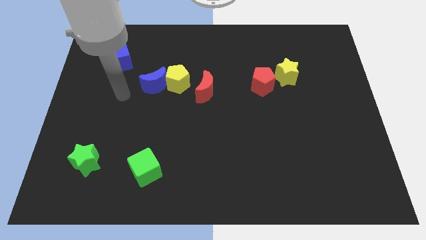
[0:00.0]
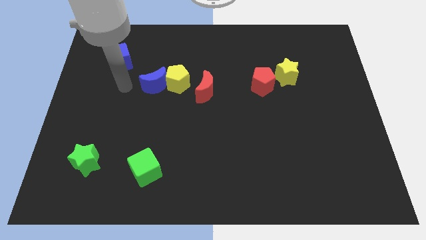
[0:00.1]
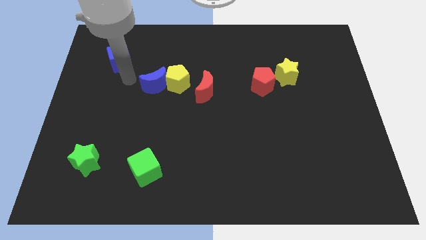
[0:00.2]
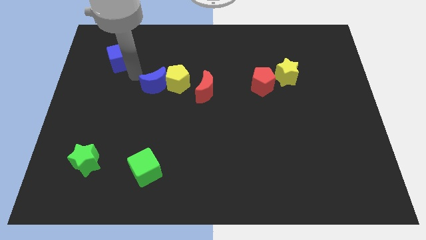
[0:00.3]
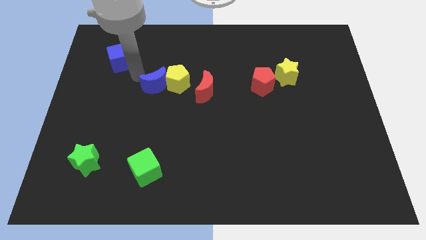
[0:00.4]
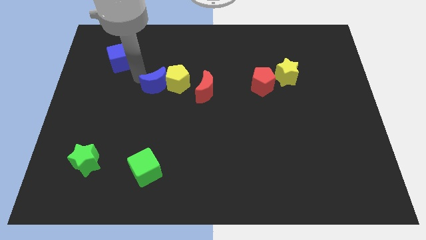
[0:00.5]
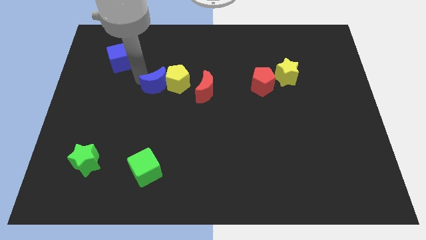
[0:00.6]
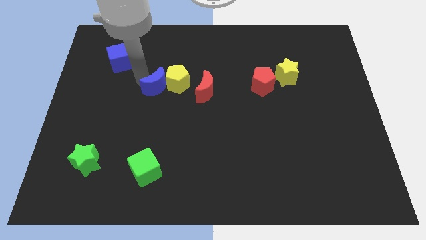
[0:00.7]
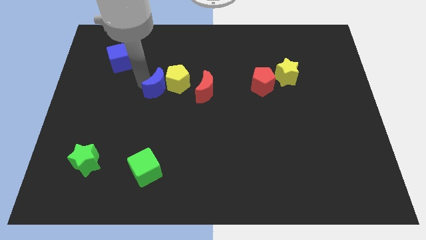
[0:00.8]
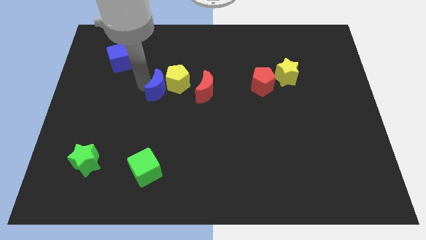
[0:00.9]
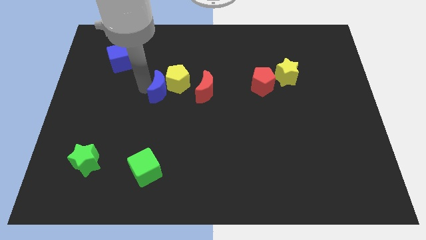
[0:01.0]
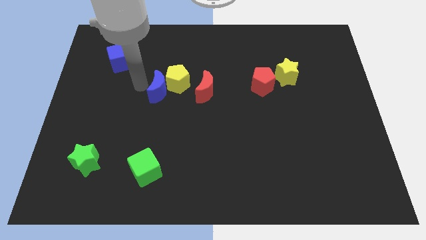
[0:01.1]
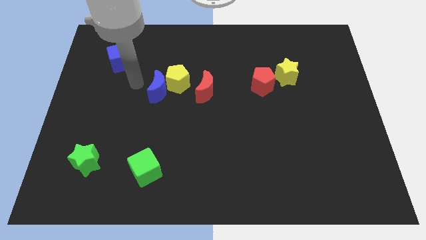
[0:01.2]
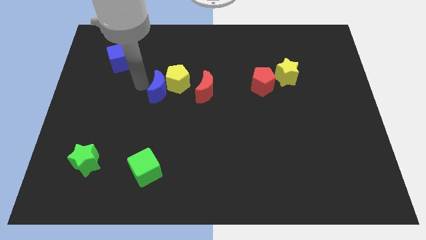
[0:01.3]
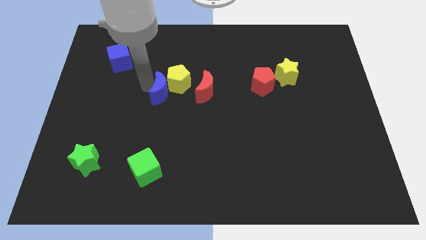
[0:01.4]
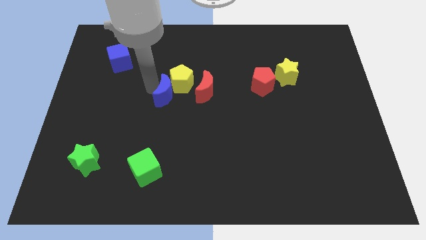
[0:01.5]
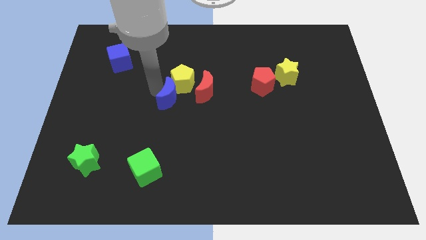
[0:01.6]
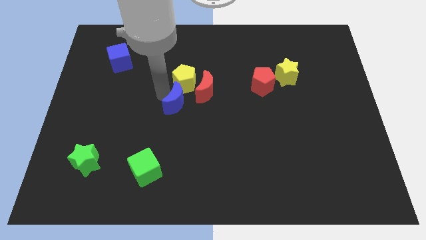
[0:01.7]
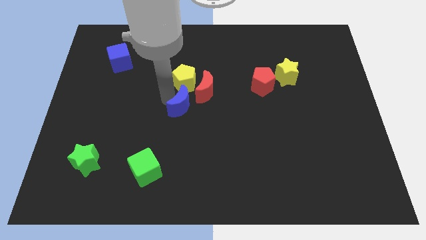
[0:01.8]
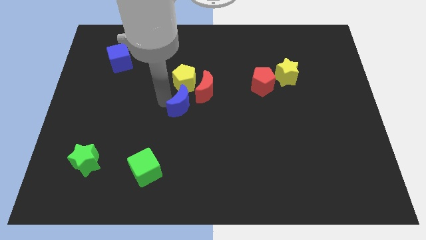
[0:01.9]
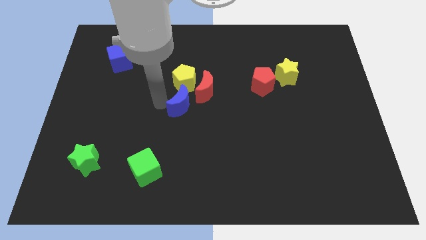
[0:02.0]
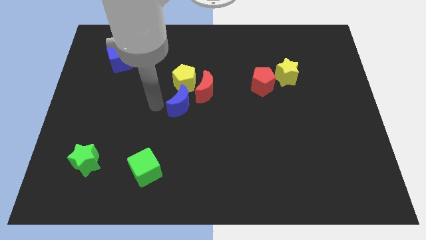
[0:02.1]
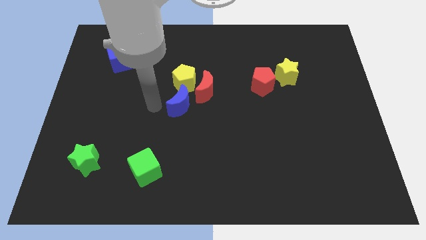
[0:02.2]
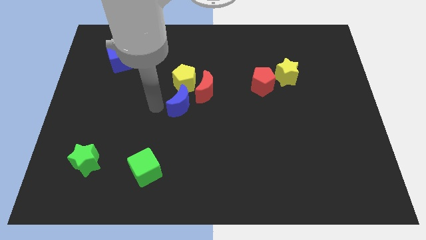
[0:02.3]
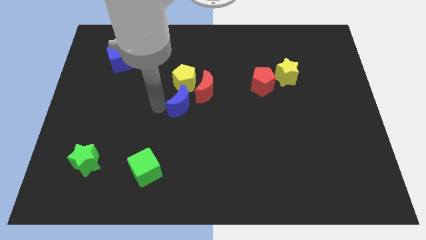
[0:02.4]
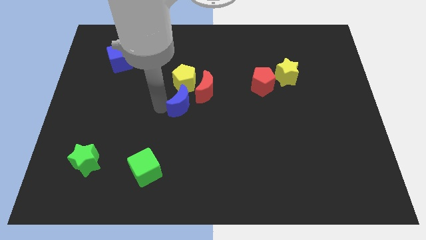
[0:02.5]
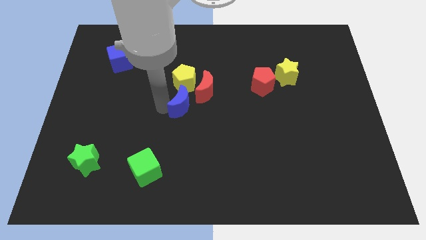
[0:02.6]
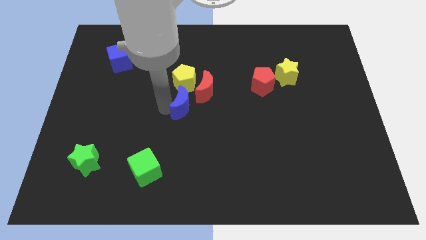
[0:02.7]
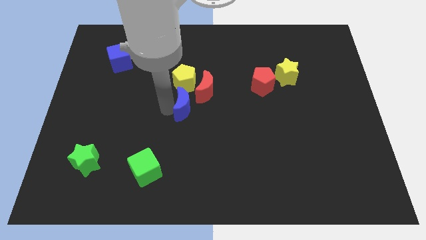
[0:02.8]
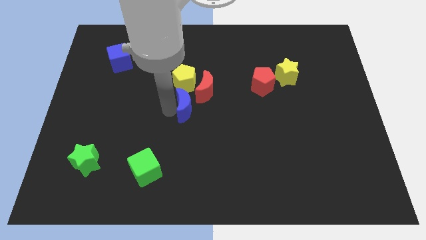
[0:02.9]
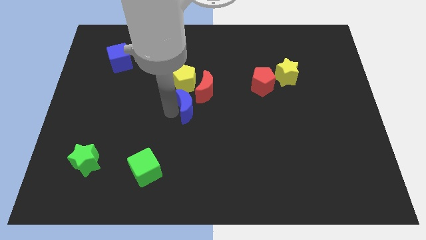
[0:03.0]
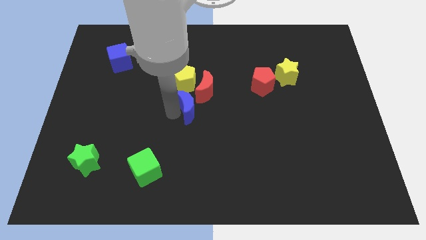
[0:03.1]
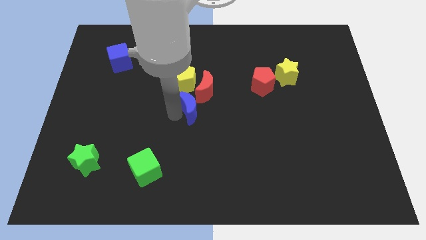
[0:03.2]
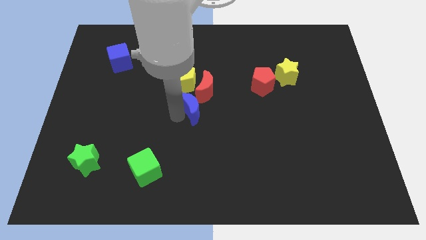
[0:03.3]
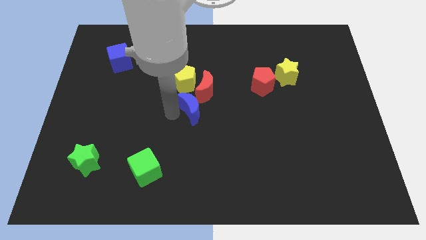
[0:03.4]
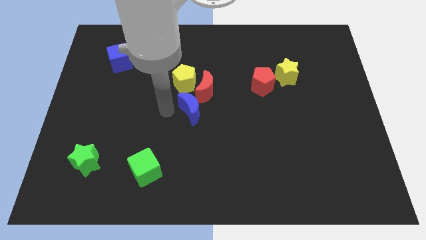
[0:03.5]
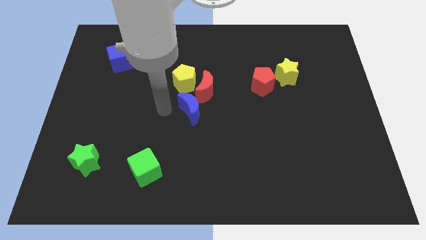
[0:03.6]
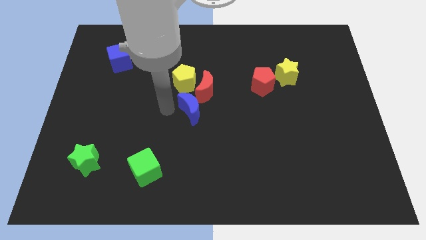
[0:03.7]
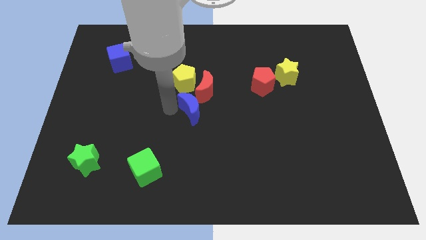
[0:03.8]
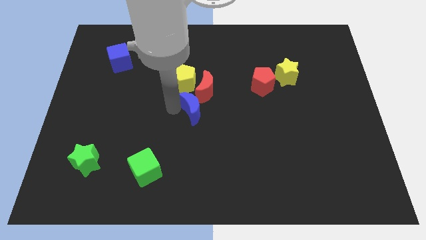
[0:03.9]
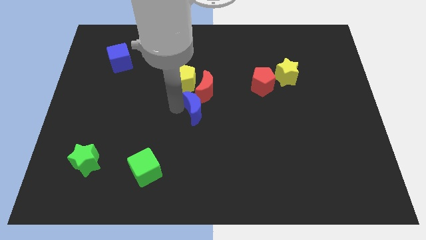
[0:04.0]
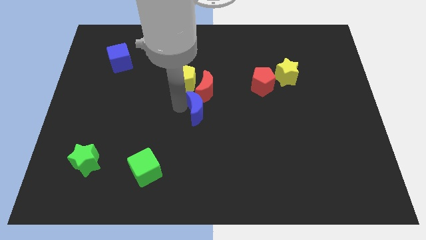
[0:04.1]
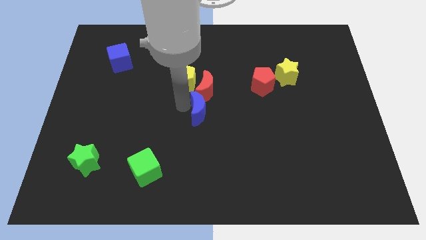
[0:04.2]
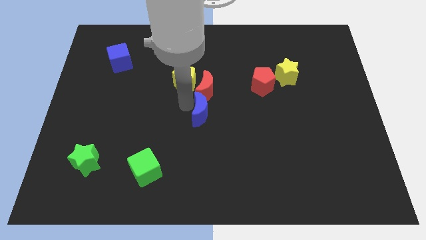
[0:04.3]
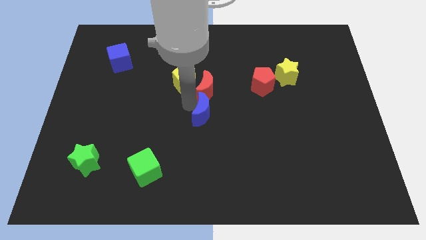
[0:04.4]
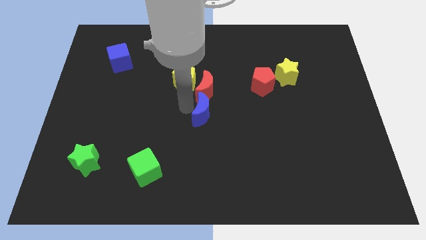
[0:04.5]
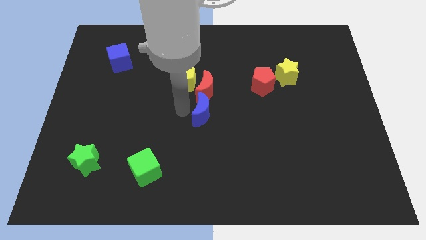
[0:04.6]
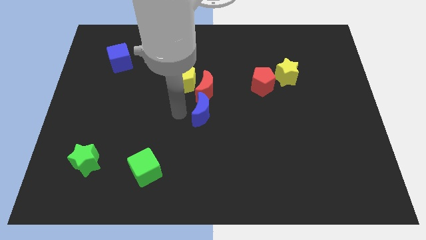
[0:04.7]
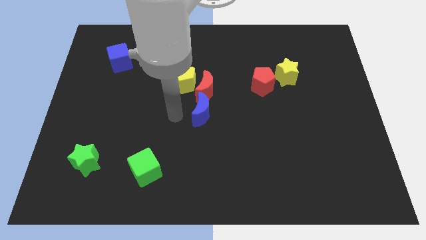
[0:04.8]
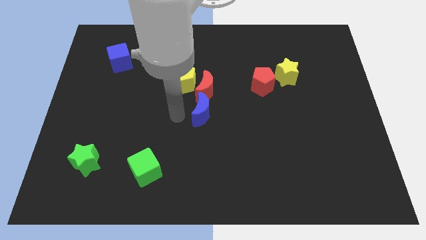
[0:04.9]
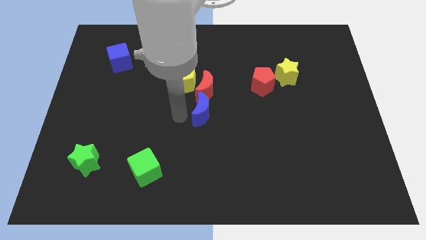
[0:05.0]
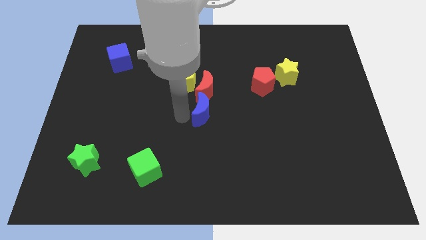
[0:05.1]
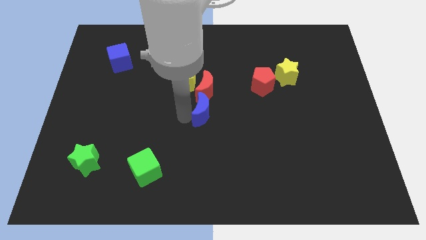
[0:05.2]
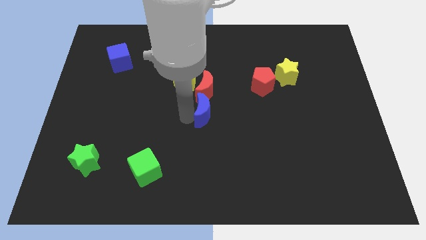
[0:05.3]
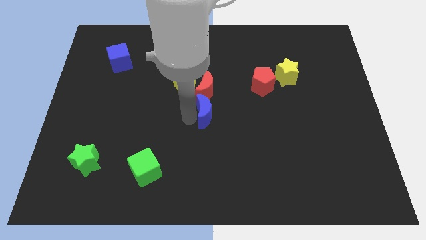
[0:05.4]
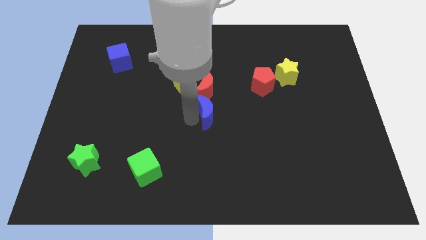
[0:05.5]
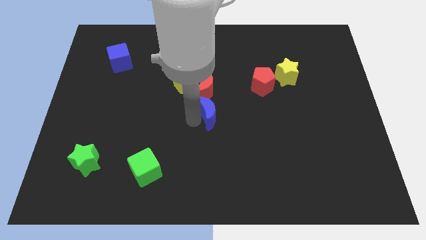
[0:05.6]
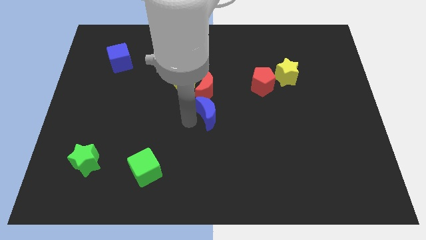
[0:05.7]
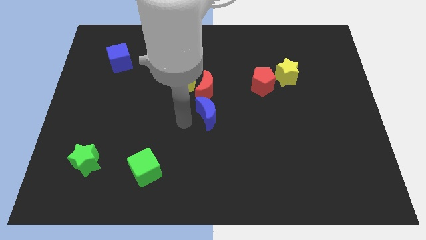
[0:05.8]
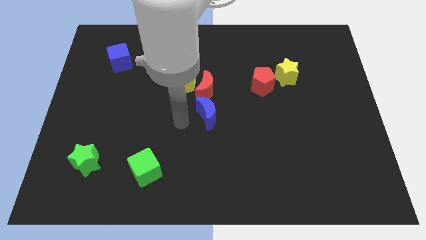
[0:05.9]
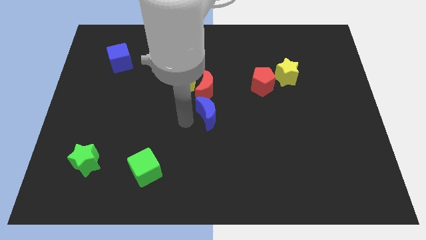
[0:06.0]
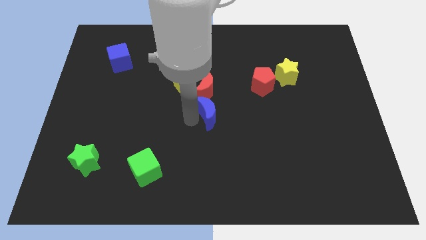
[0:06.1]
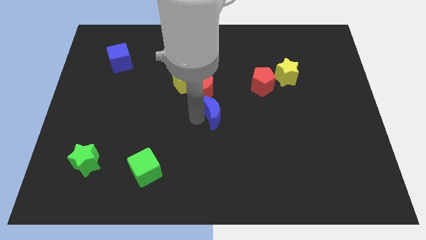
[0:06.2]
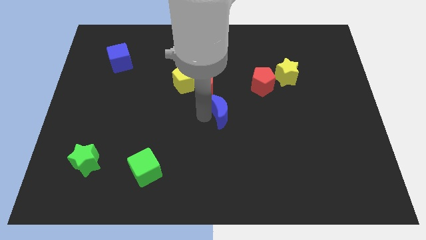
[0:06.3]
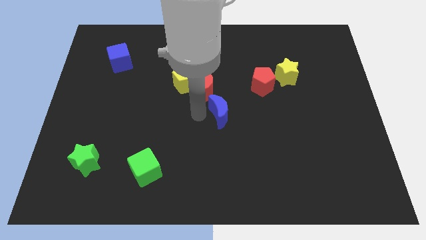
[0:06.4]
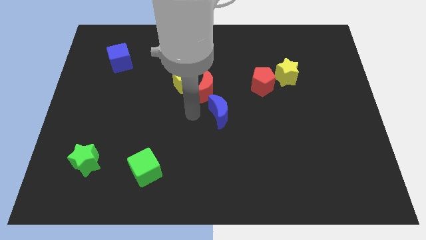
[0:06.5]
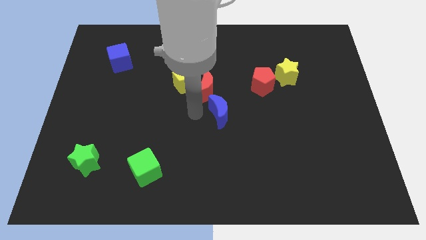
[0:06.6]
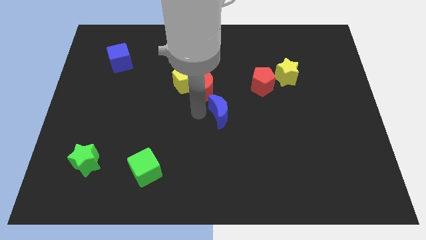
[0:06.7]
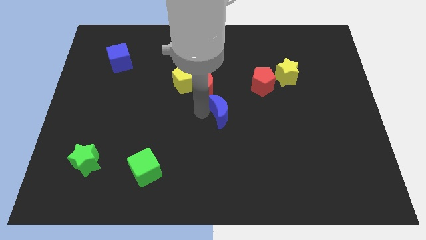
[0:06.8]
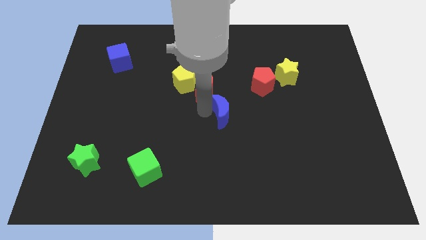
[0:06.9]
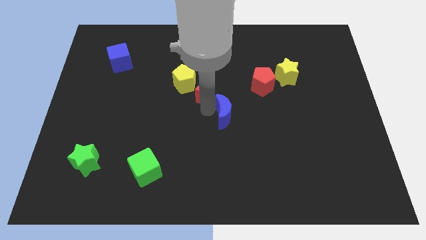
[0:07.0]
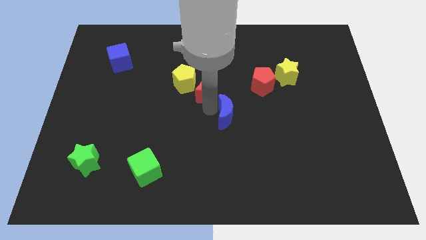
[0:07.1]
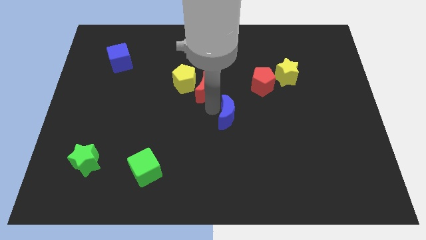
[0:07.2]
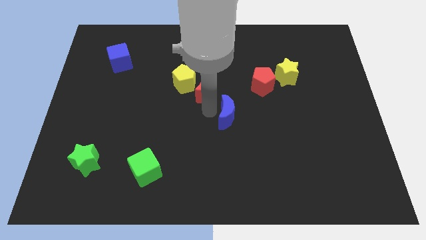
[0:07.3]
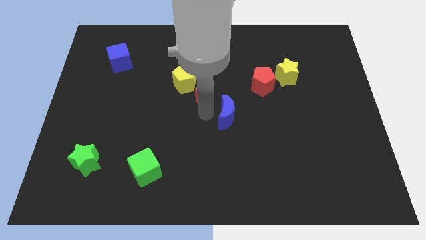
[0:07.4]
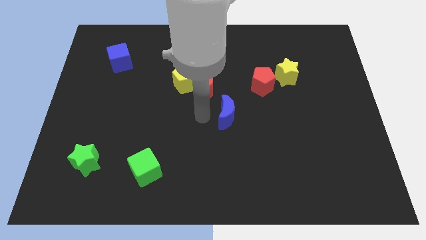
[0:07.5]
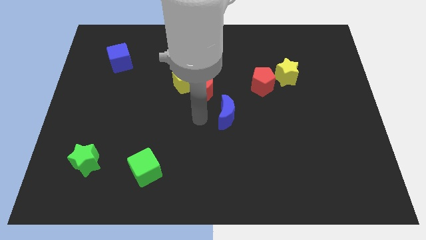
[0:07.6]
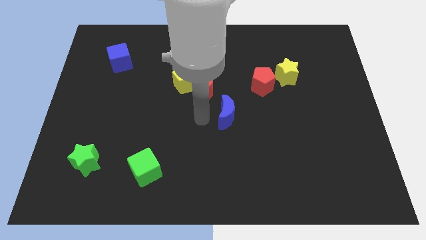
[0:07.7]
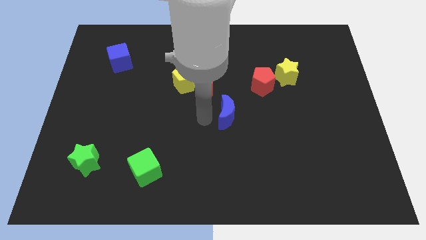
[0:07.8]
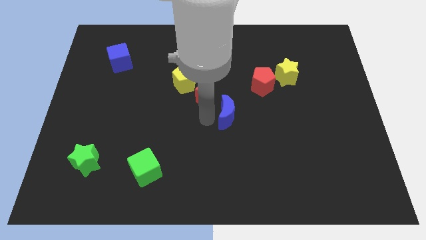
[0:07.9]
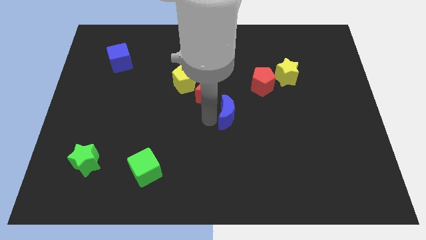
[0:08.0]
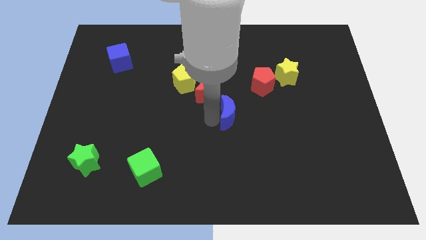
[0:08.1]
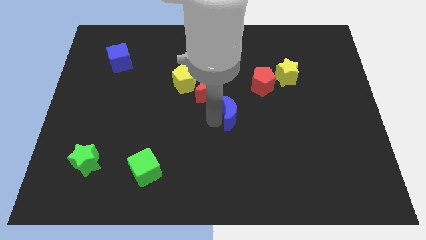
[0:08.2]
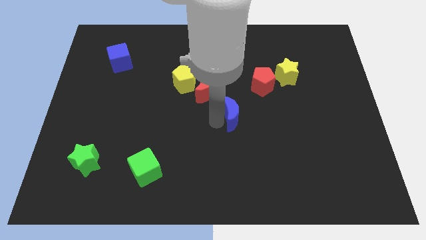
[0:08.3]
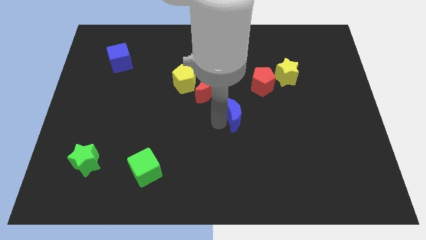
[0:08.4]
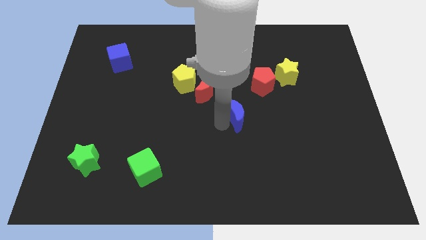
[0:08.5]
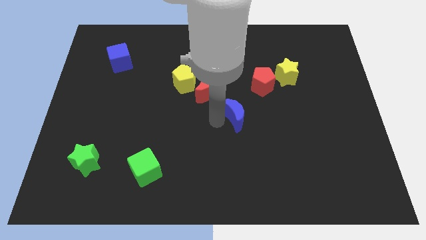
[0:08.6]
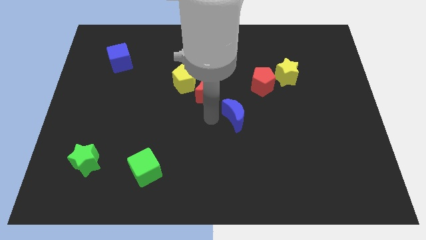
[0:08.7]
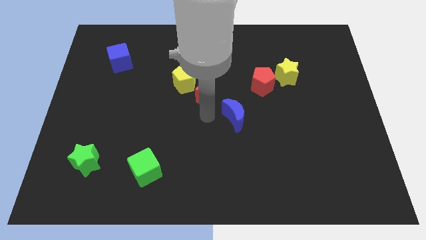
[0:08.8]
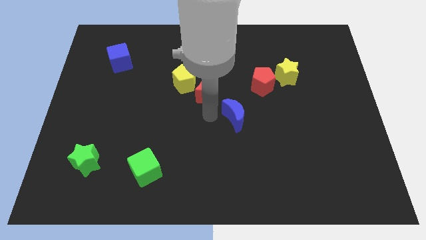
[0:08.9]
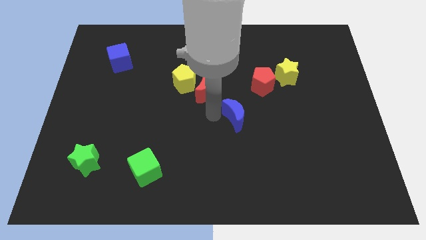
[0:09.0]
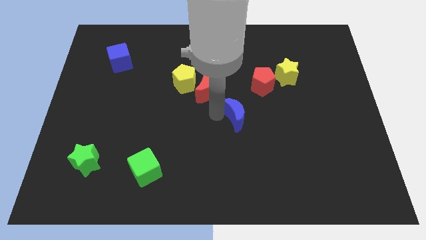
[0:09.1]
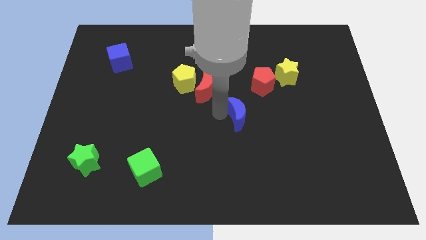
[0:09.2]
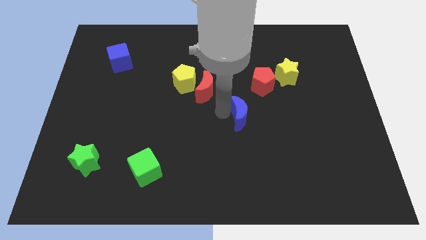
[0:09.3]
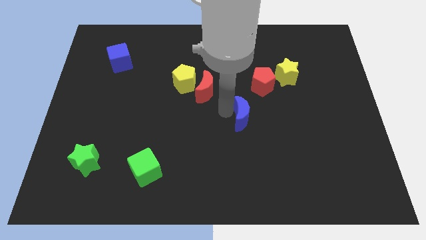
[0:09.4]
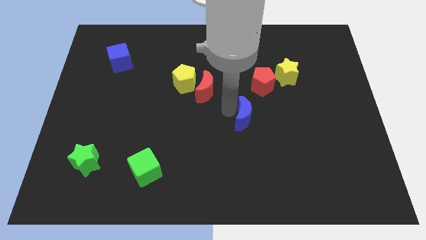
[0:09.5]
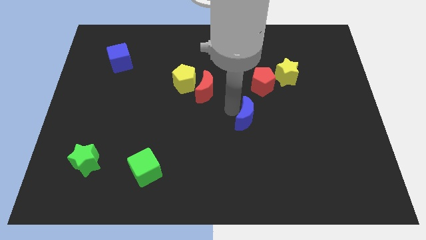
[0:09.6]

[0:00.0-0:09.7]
move the blue moon to the bottom of the red pentagon
